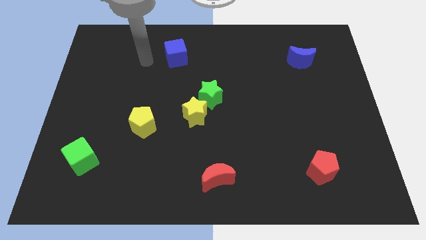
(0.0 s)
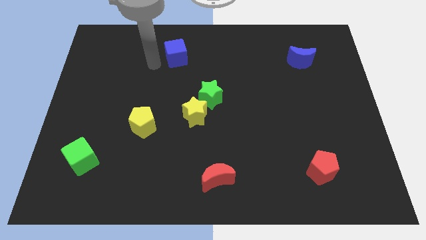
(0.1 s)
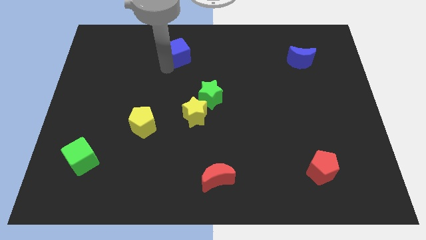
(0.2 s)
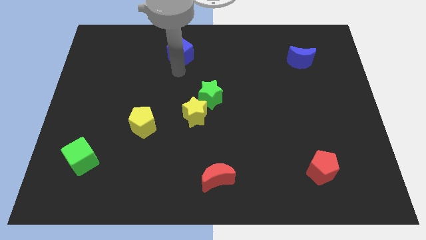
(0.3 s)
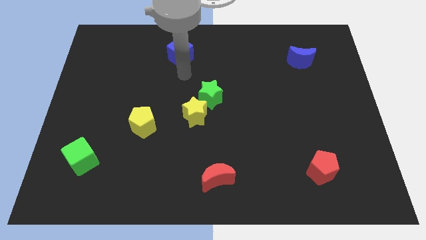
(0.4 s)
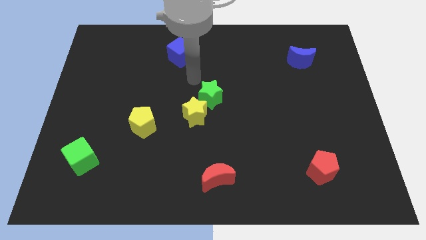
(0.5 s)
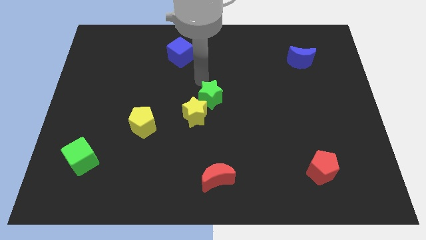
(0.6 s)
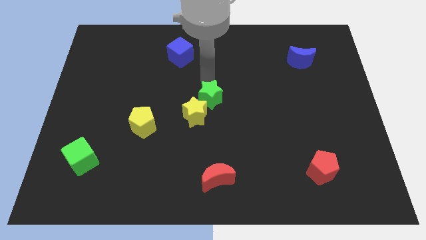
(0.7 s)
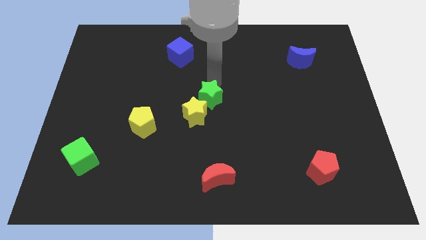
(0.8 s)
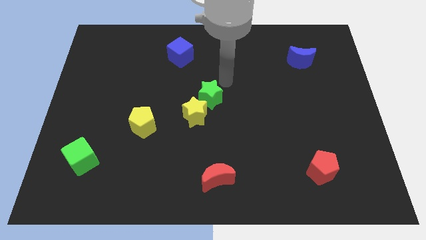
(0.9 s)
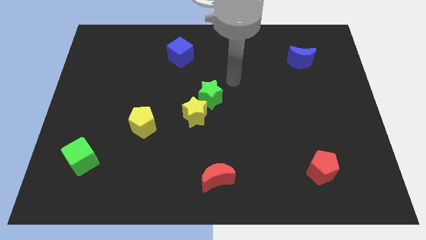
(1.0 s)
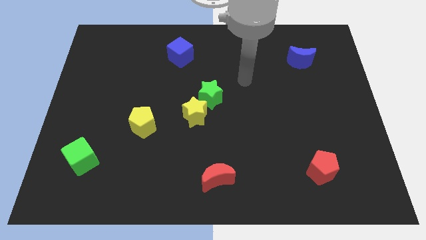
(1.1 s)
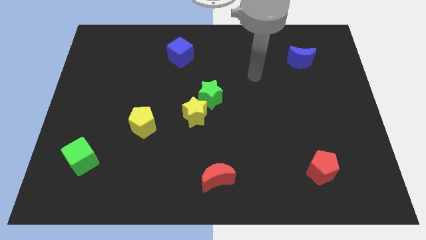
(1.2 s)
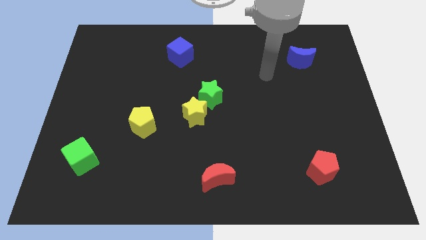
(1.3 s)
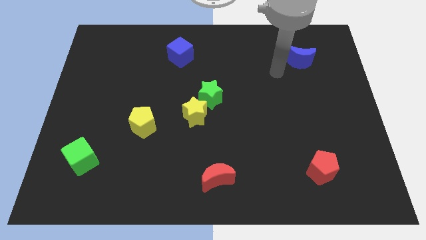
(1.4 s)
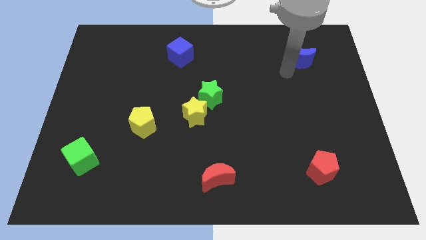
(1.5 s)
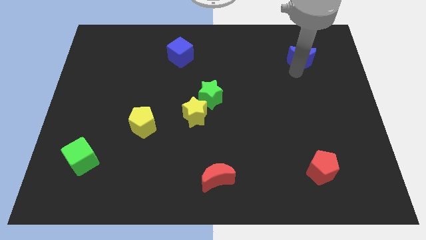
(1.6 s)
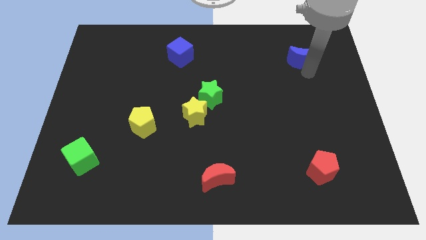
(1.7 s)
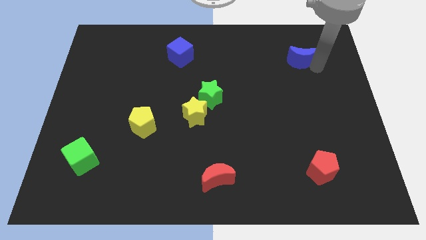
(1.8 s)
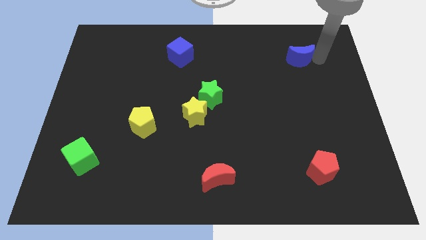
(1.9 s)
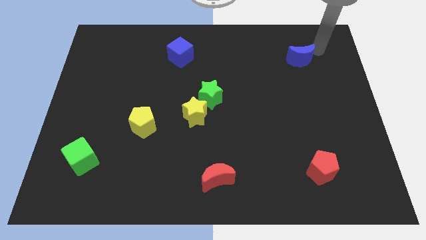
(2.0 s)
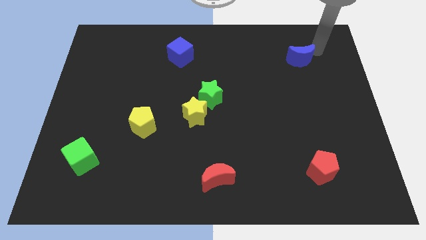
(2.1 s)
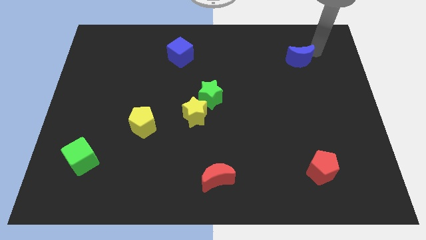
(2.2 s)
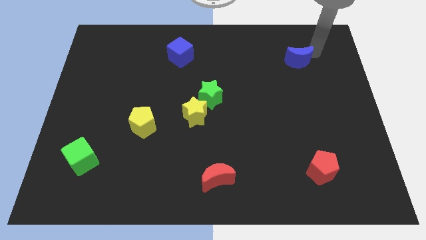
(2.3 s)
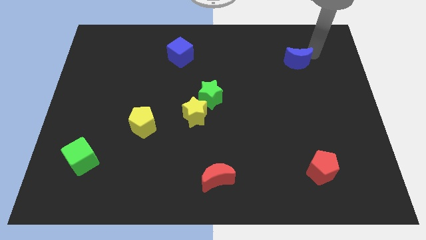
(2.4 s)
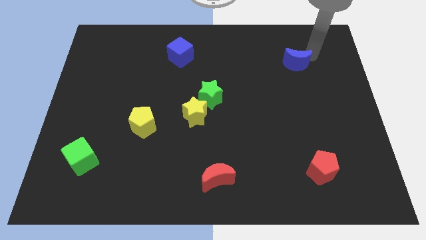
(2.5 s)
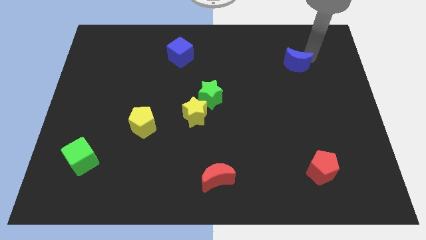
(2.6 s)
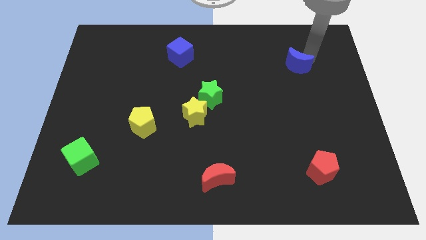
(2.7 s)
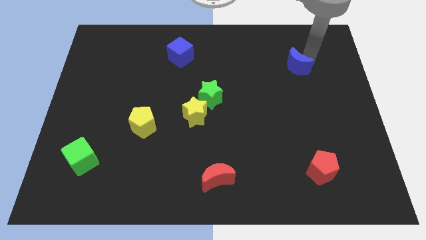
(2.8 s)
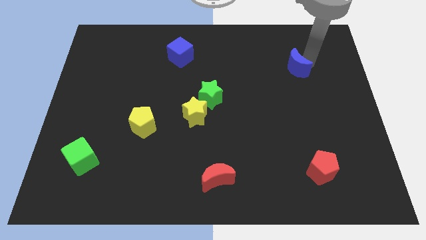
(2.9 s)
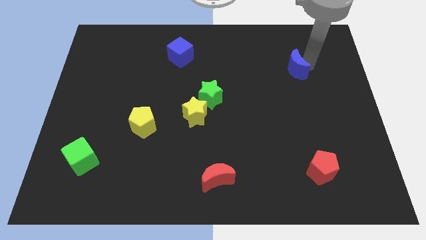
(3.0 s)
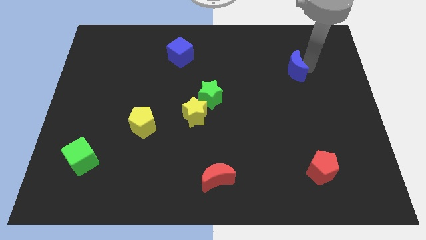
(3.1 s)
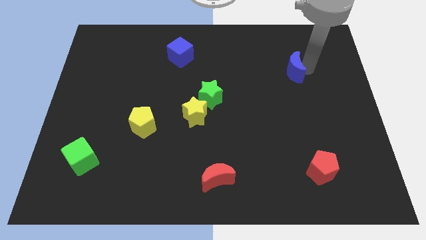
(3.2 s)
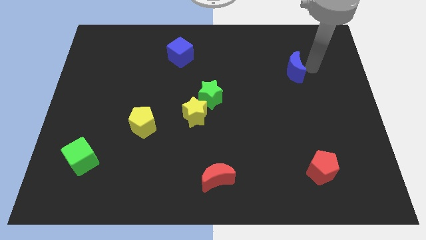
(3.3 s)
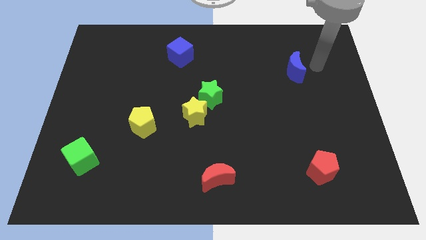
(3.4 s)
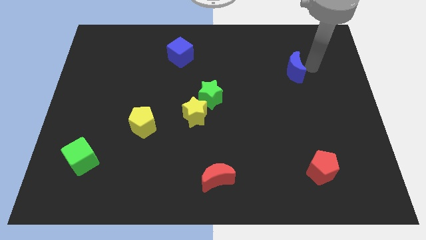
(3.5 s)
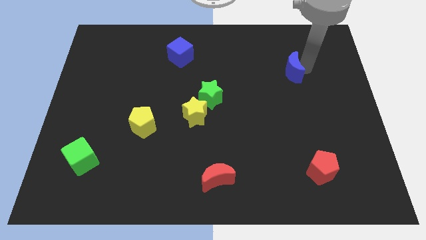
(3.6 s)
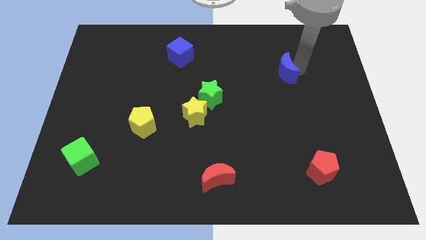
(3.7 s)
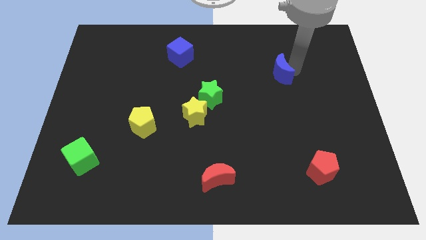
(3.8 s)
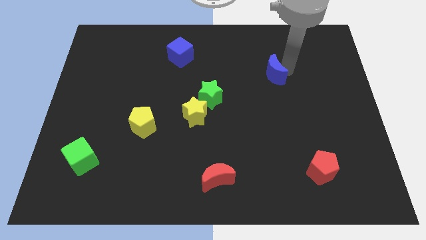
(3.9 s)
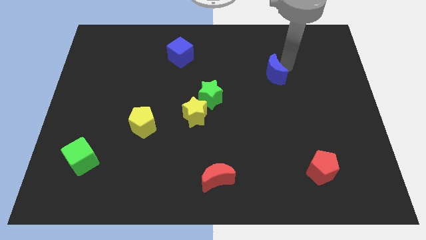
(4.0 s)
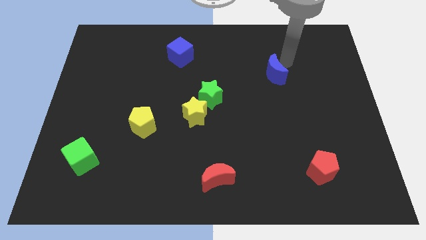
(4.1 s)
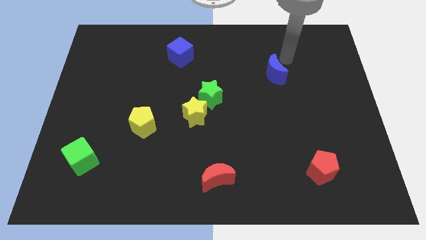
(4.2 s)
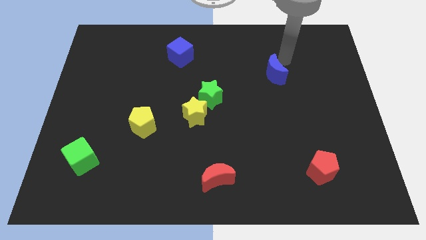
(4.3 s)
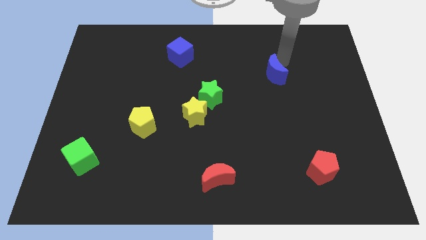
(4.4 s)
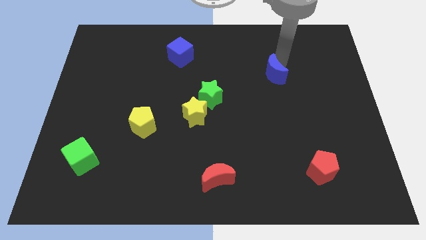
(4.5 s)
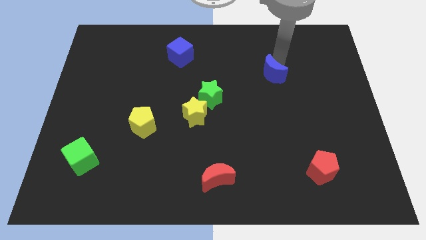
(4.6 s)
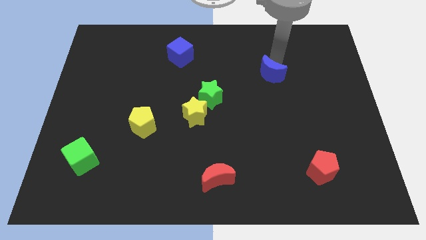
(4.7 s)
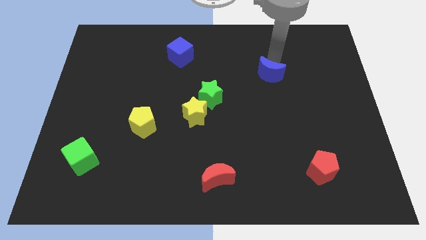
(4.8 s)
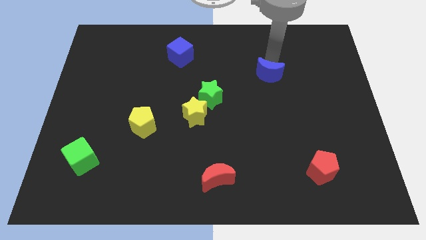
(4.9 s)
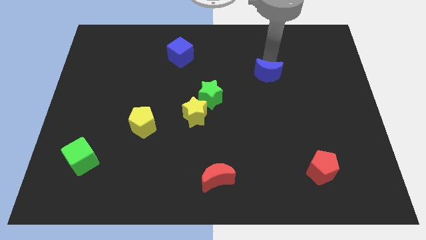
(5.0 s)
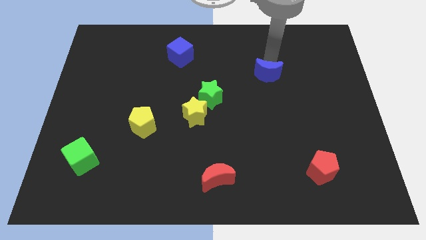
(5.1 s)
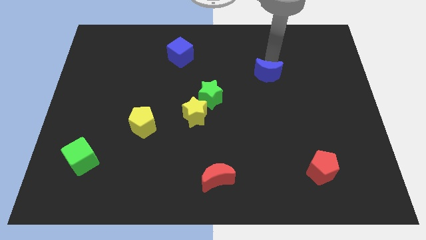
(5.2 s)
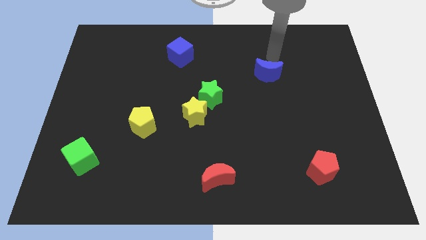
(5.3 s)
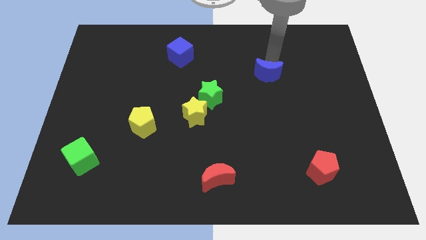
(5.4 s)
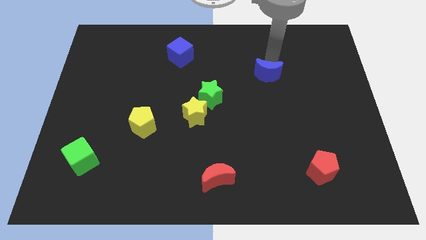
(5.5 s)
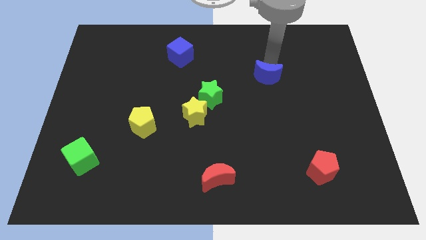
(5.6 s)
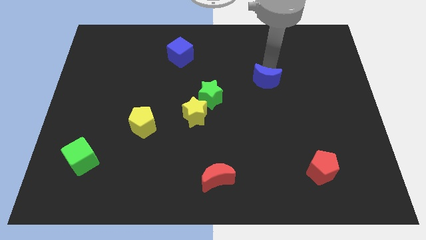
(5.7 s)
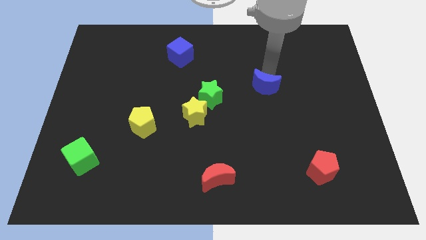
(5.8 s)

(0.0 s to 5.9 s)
move the blue moon just right of the green star

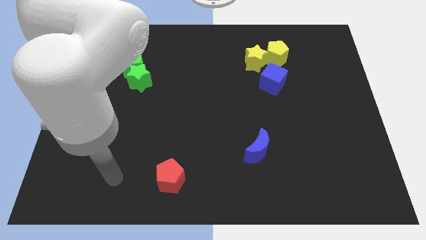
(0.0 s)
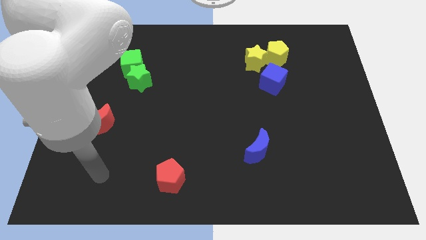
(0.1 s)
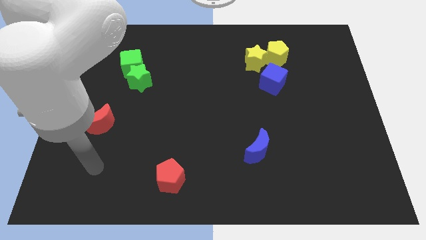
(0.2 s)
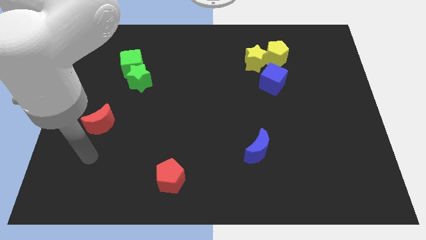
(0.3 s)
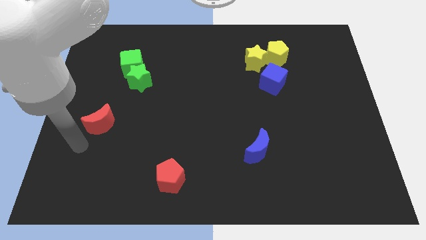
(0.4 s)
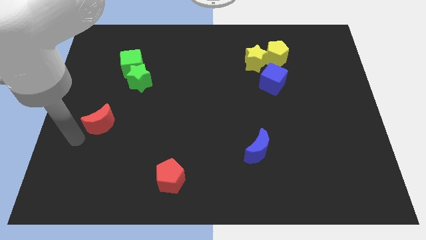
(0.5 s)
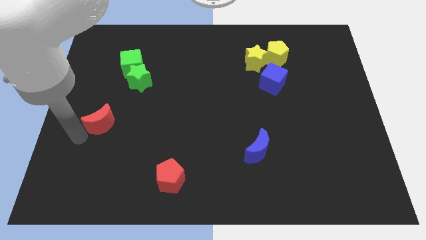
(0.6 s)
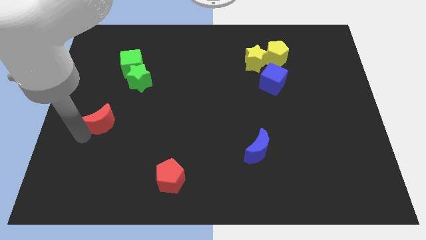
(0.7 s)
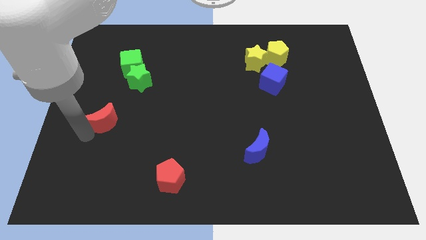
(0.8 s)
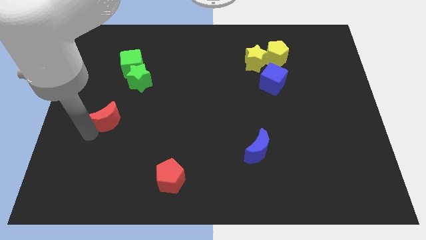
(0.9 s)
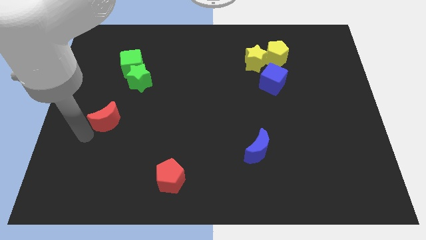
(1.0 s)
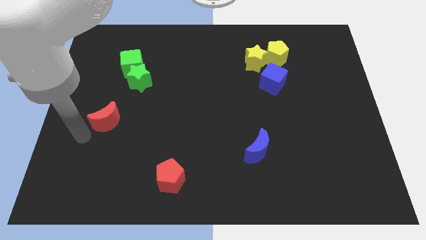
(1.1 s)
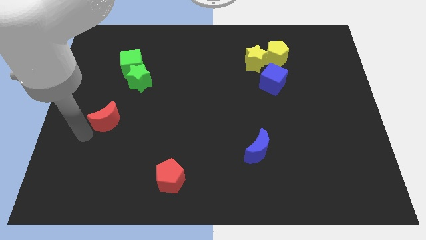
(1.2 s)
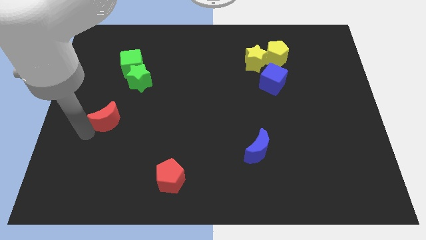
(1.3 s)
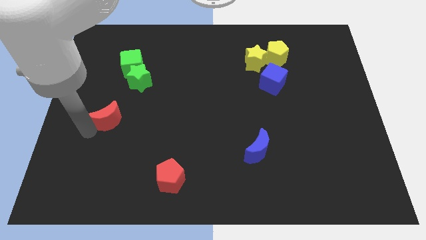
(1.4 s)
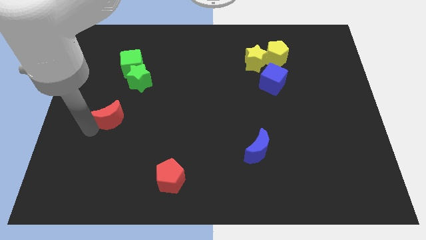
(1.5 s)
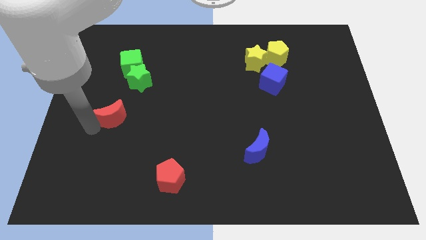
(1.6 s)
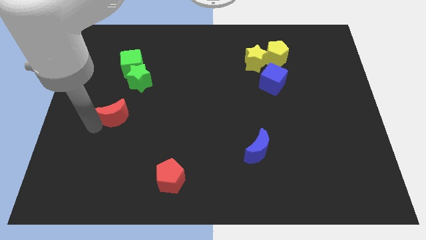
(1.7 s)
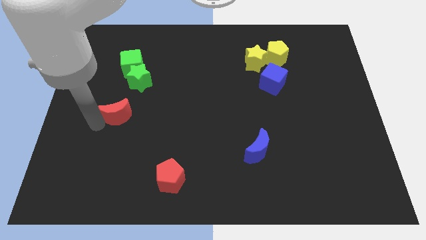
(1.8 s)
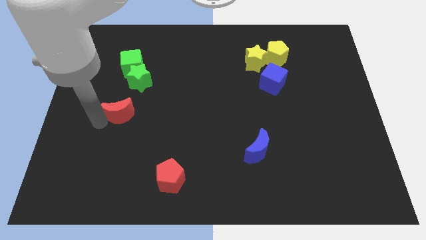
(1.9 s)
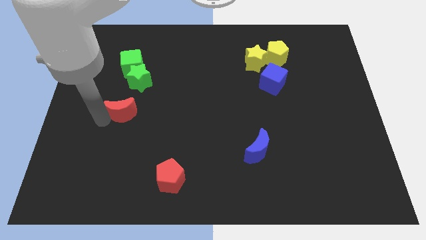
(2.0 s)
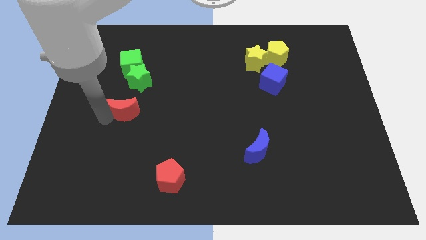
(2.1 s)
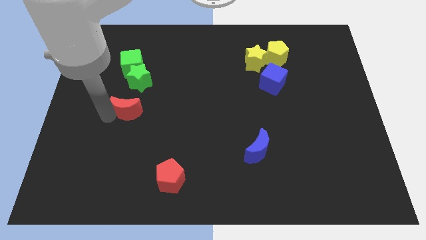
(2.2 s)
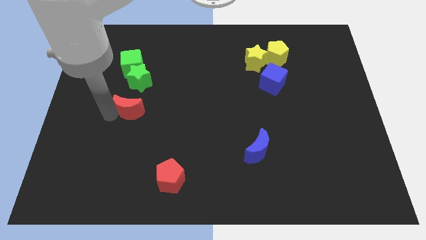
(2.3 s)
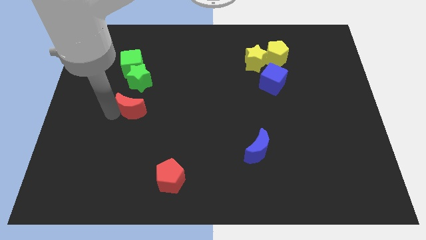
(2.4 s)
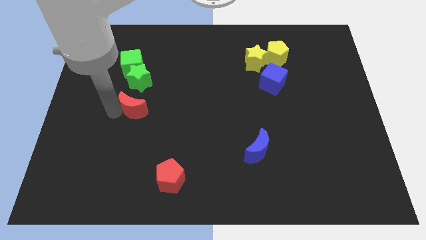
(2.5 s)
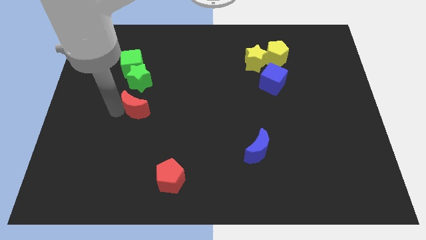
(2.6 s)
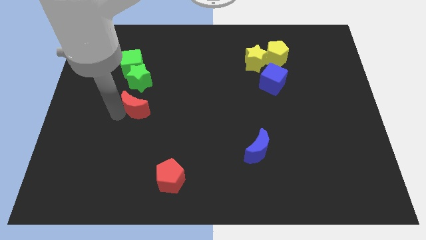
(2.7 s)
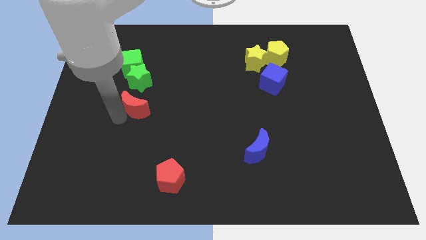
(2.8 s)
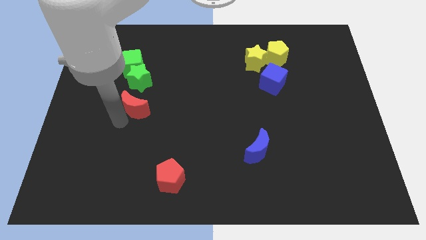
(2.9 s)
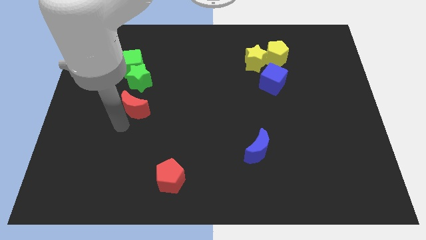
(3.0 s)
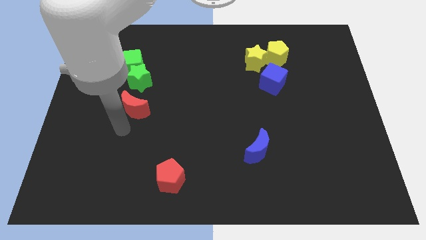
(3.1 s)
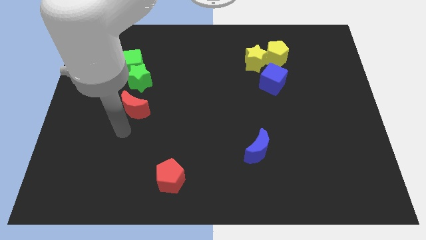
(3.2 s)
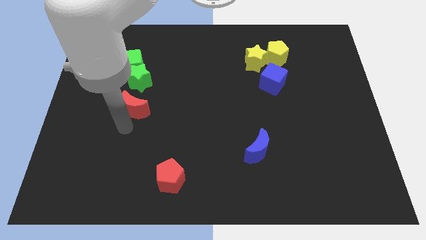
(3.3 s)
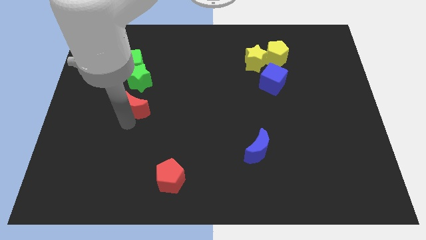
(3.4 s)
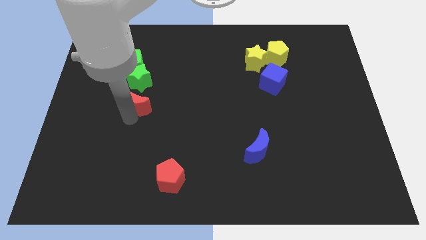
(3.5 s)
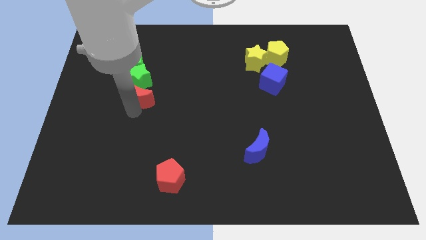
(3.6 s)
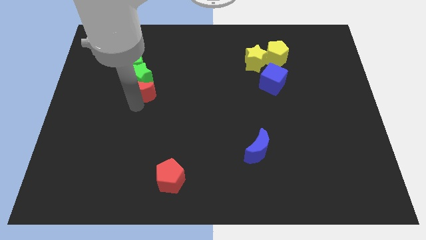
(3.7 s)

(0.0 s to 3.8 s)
put the red moon to the bottom right side of the green cube
